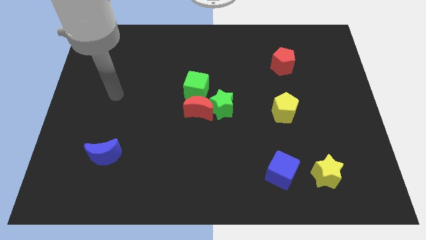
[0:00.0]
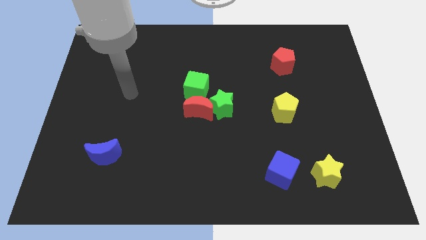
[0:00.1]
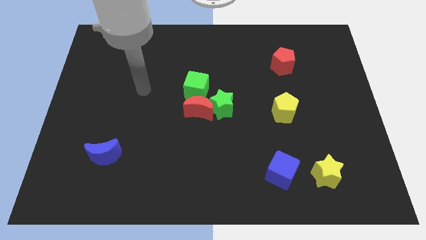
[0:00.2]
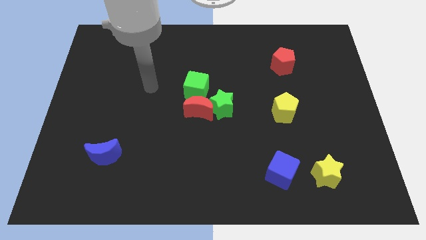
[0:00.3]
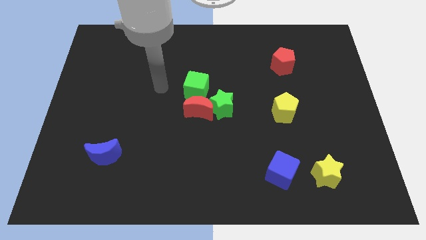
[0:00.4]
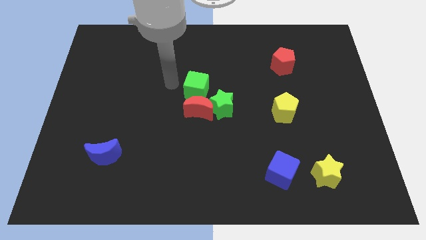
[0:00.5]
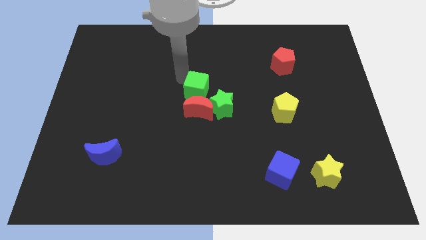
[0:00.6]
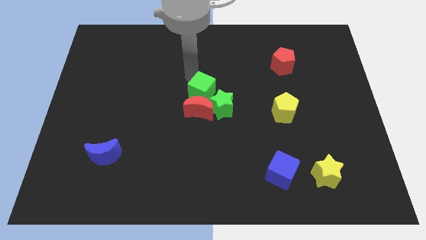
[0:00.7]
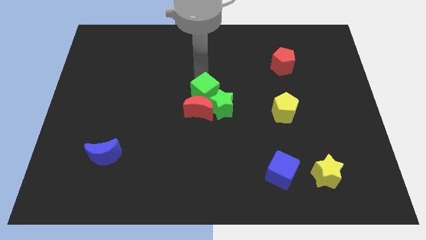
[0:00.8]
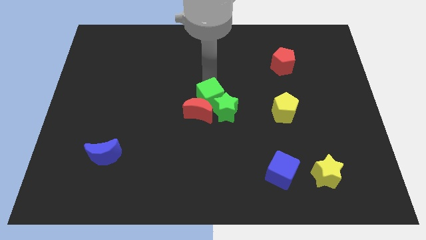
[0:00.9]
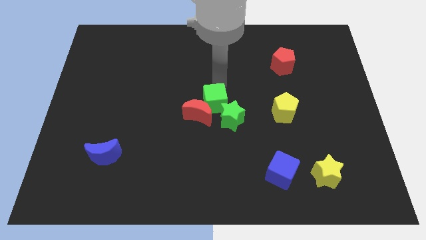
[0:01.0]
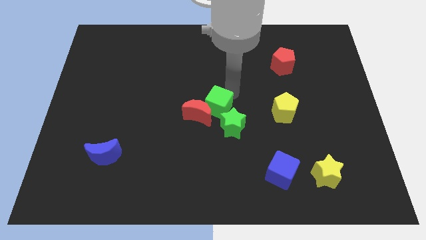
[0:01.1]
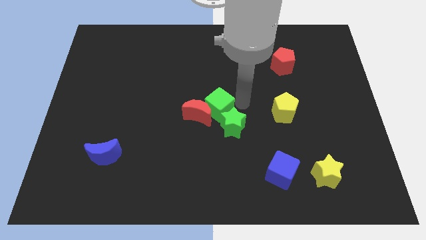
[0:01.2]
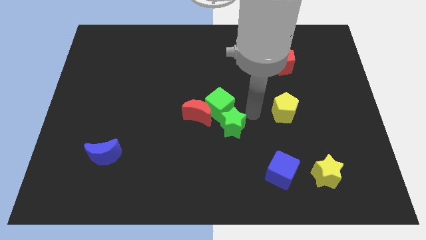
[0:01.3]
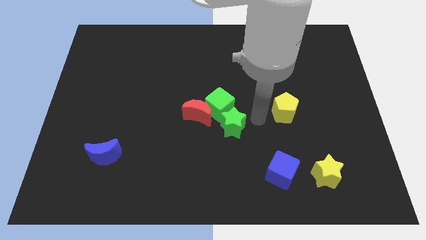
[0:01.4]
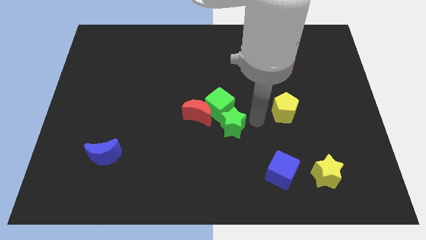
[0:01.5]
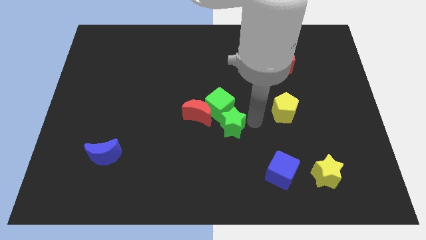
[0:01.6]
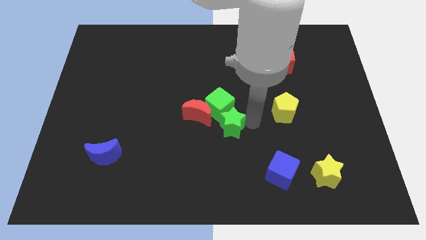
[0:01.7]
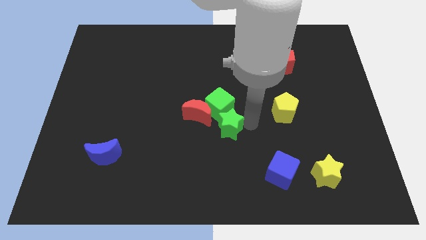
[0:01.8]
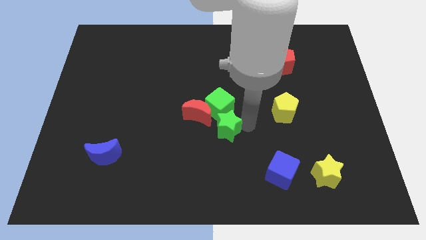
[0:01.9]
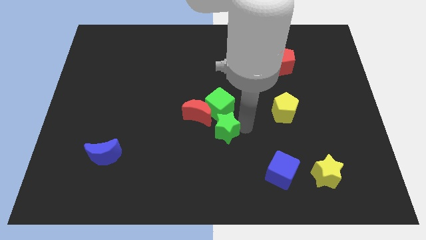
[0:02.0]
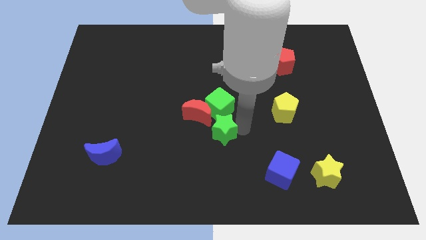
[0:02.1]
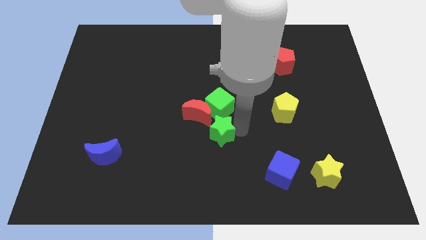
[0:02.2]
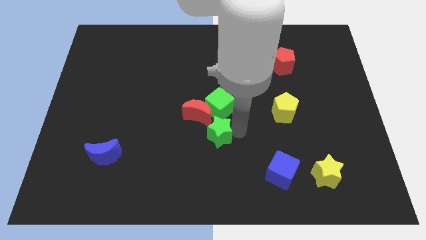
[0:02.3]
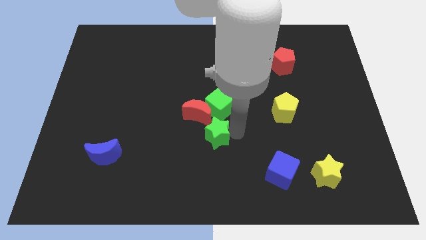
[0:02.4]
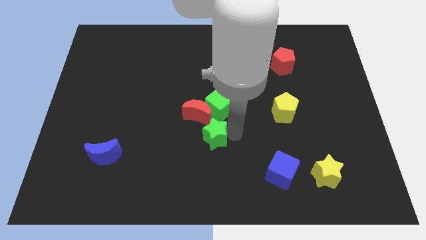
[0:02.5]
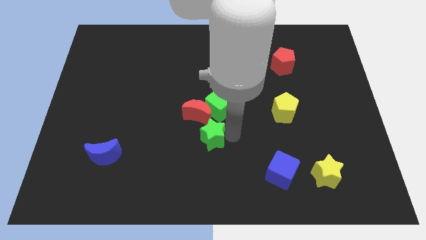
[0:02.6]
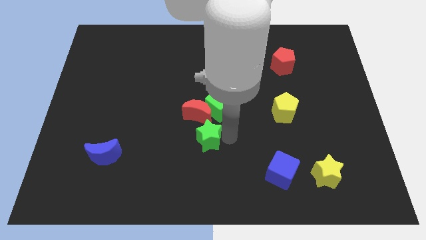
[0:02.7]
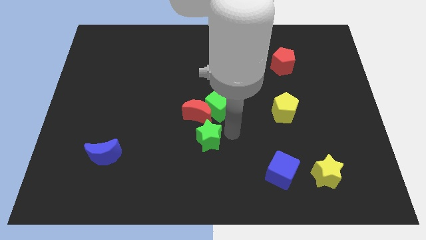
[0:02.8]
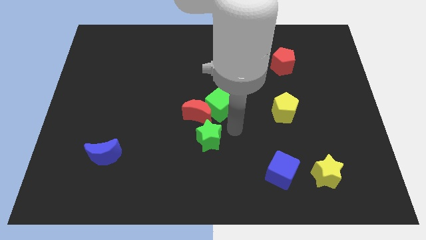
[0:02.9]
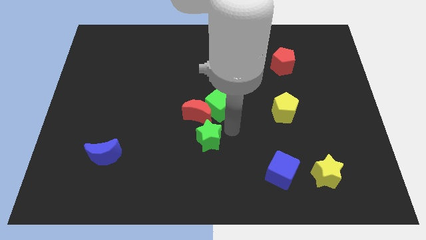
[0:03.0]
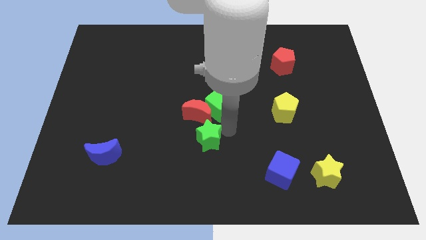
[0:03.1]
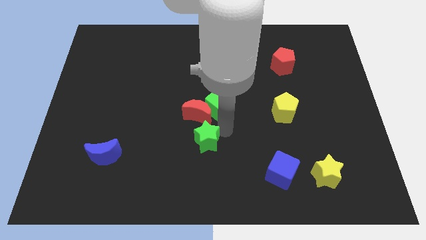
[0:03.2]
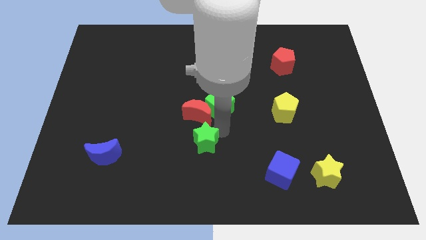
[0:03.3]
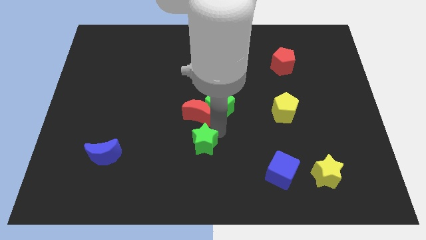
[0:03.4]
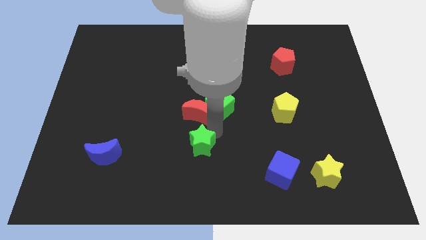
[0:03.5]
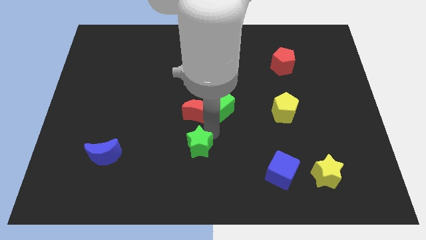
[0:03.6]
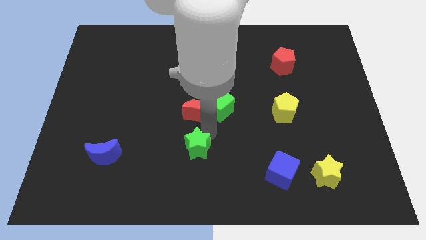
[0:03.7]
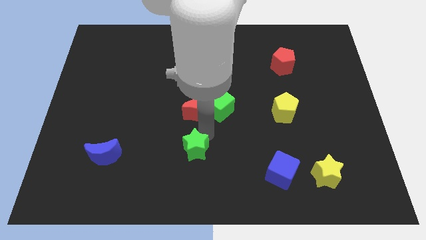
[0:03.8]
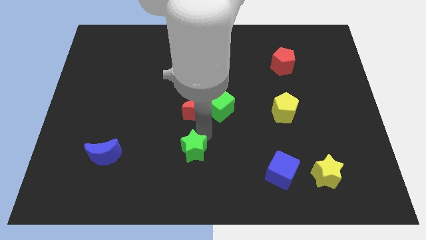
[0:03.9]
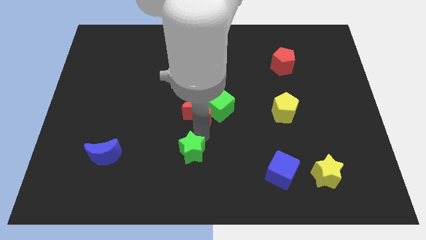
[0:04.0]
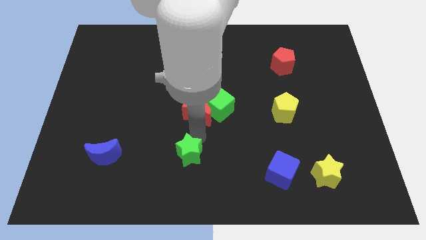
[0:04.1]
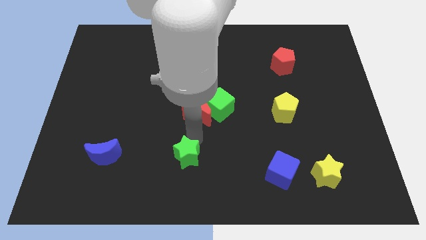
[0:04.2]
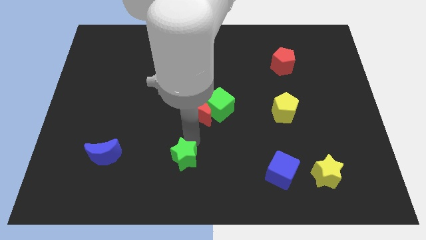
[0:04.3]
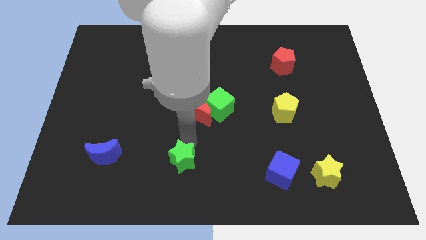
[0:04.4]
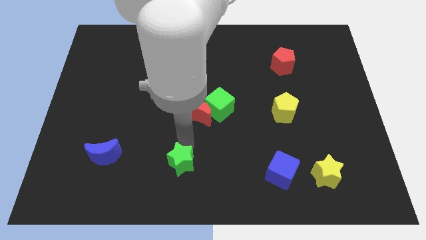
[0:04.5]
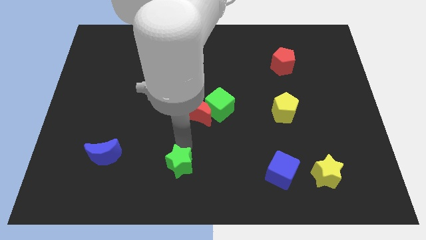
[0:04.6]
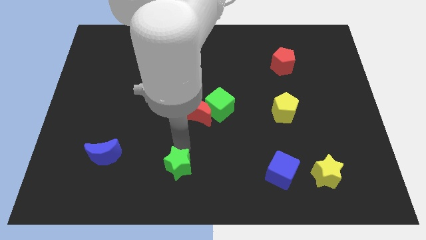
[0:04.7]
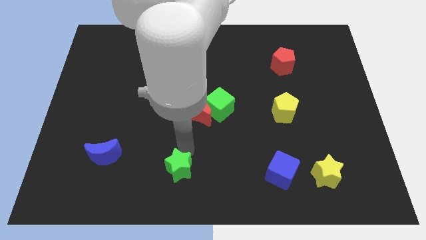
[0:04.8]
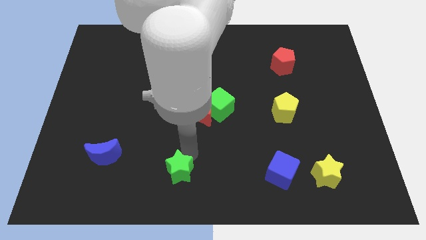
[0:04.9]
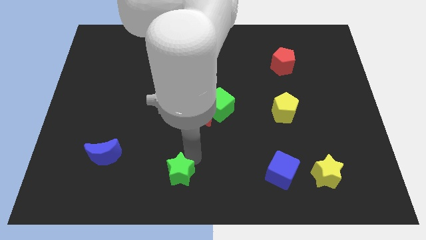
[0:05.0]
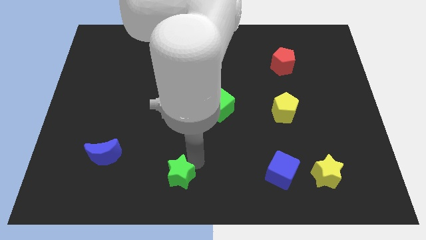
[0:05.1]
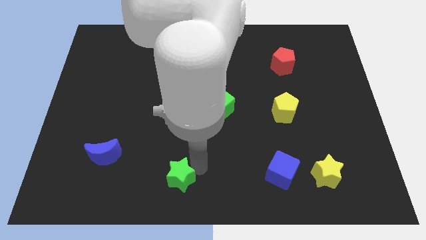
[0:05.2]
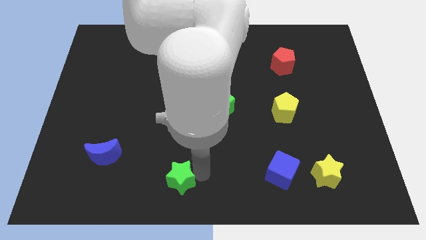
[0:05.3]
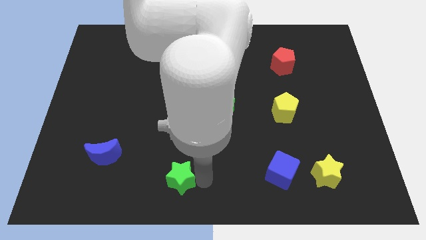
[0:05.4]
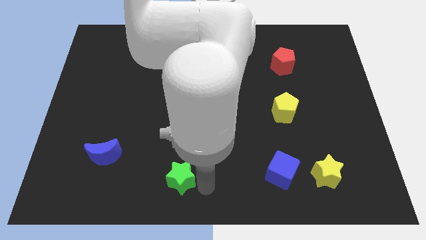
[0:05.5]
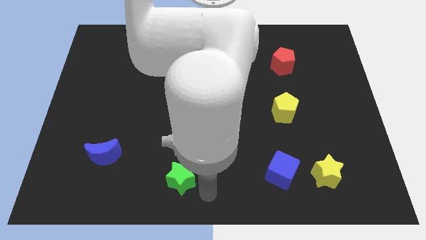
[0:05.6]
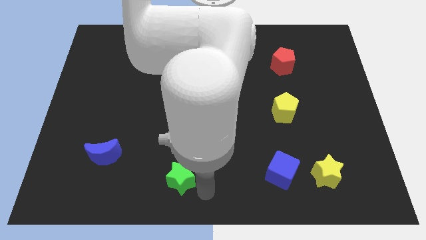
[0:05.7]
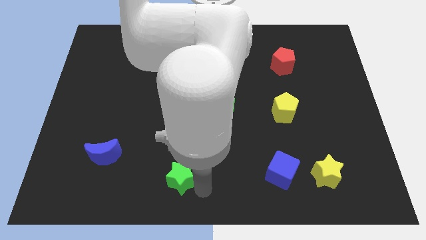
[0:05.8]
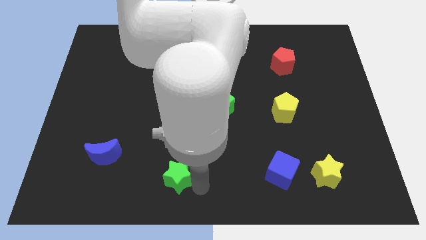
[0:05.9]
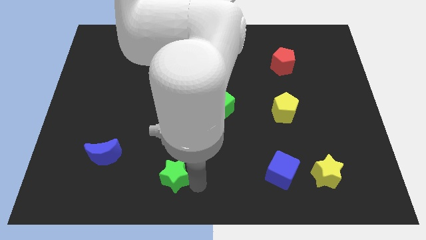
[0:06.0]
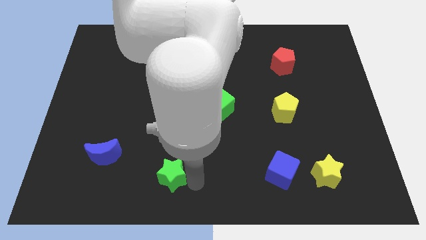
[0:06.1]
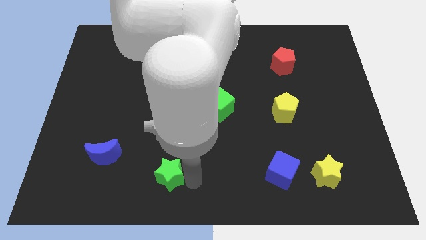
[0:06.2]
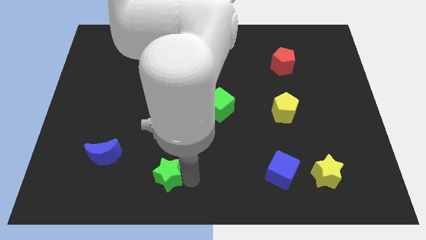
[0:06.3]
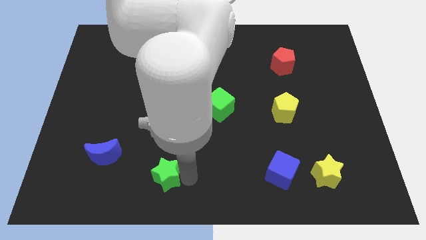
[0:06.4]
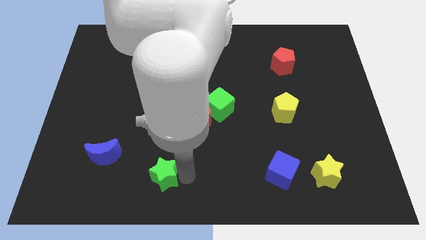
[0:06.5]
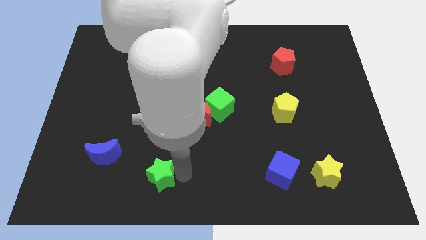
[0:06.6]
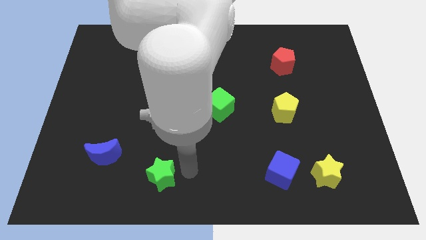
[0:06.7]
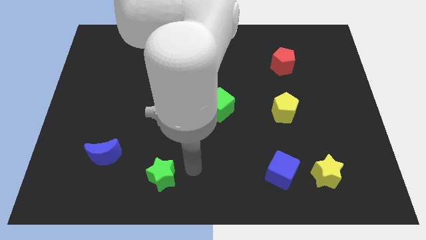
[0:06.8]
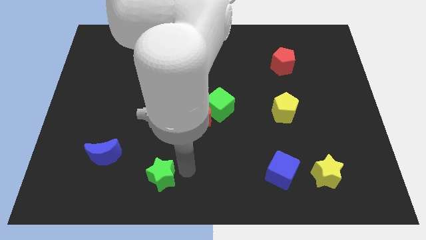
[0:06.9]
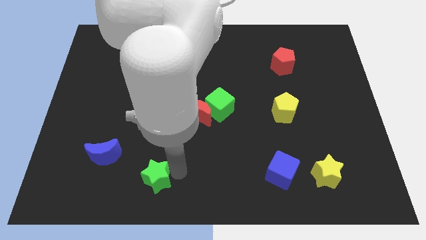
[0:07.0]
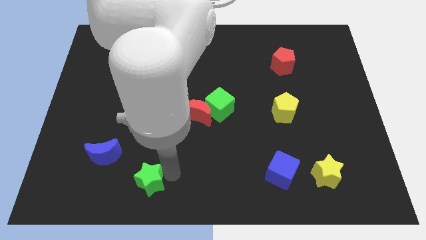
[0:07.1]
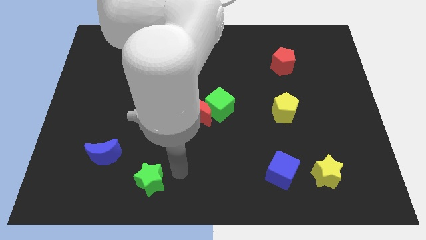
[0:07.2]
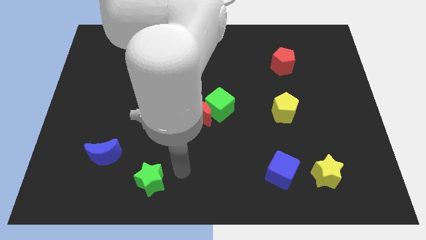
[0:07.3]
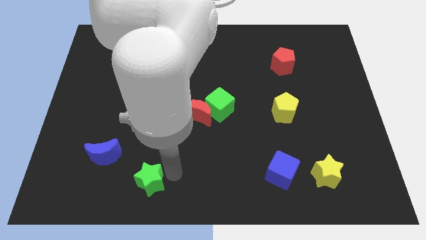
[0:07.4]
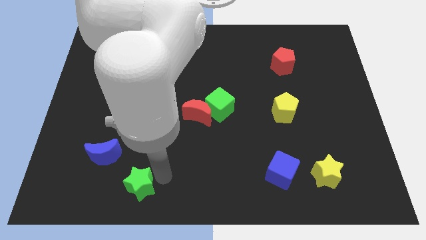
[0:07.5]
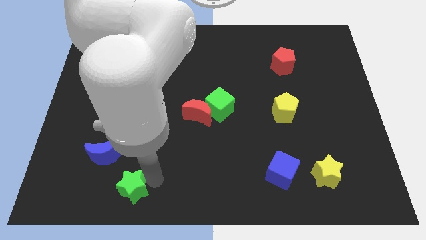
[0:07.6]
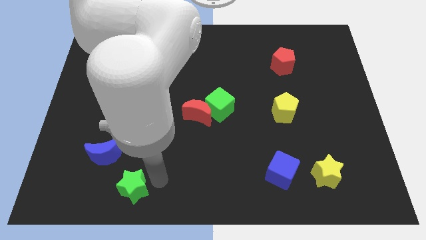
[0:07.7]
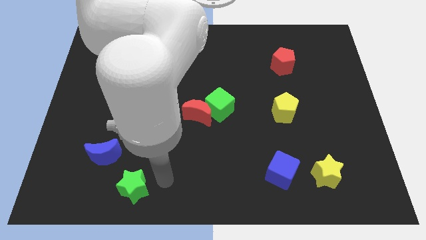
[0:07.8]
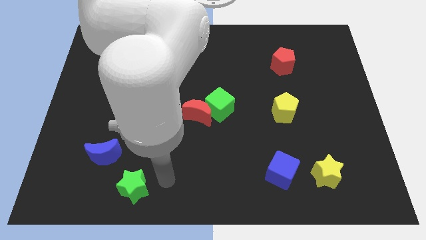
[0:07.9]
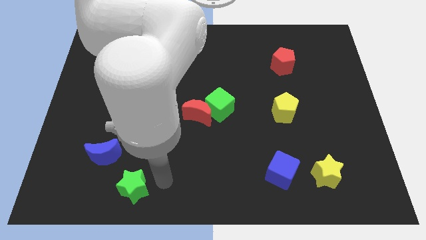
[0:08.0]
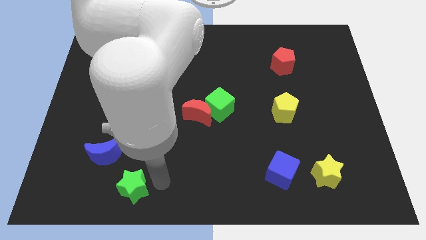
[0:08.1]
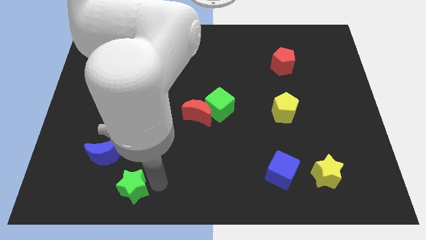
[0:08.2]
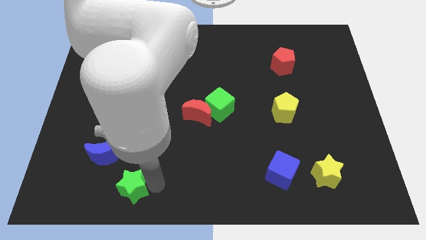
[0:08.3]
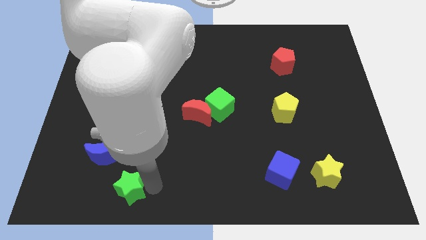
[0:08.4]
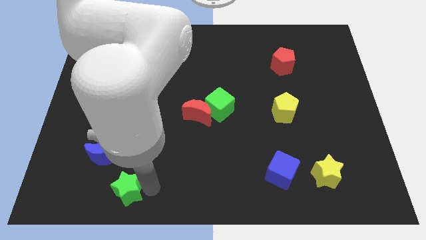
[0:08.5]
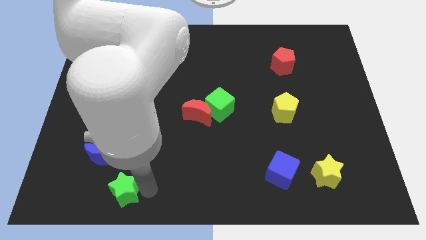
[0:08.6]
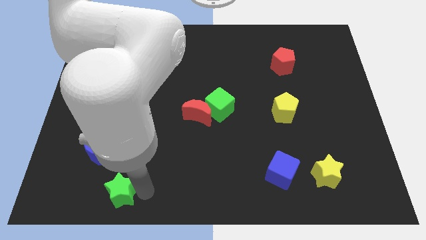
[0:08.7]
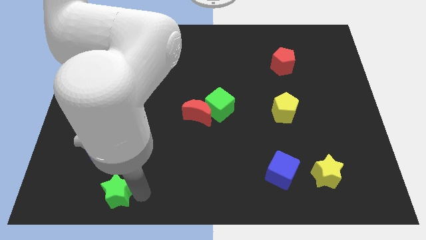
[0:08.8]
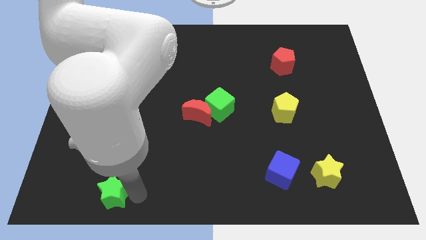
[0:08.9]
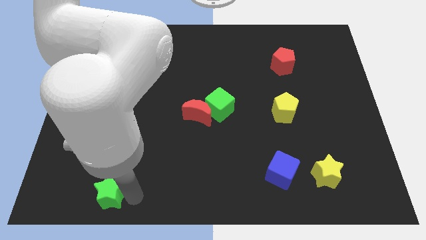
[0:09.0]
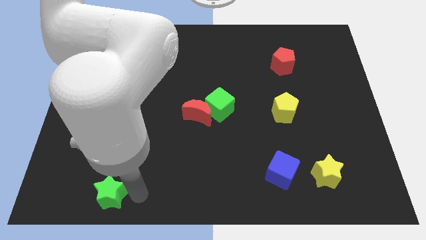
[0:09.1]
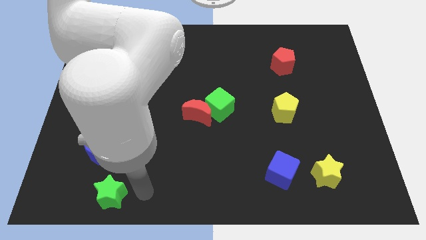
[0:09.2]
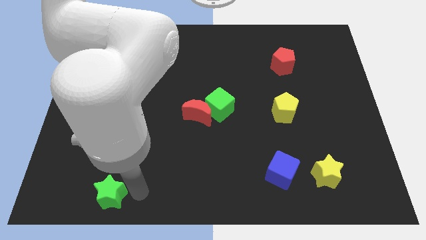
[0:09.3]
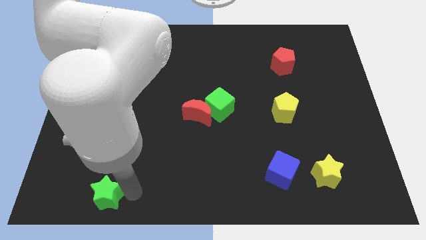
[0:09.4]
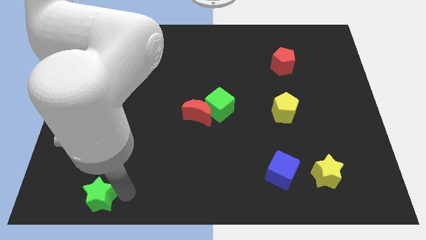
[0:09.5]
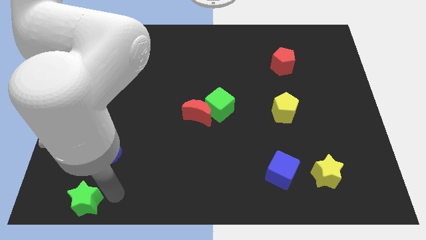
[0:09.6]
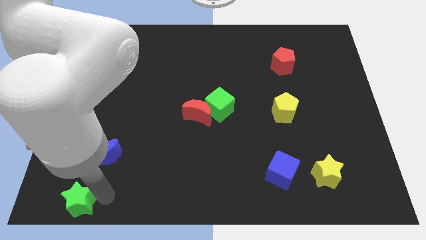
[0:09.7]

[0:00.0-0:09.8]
move the green star to the lower left corner
